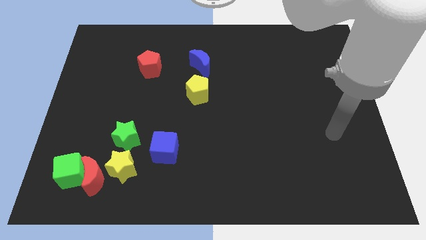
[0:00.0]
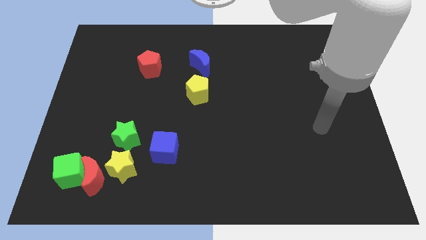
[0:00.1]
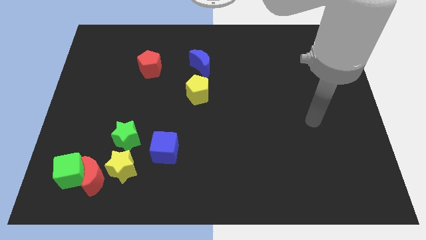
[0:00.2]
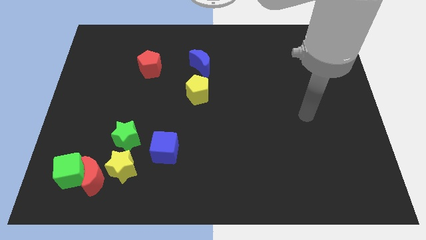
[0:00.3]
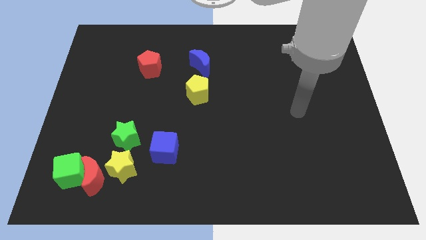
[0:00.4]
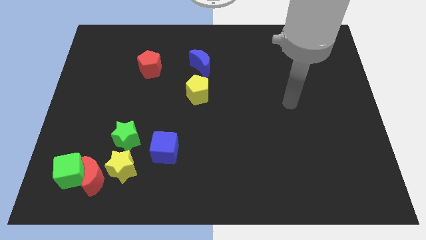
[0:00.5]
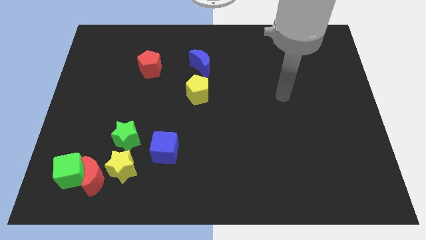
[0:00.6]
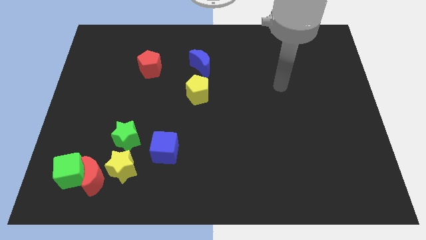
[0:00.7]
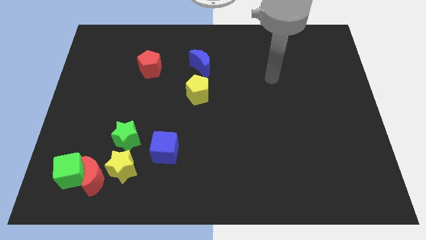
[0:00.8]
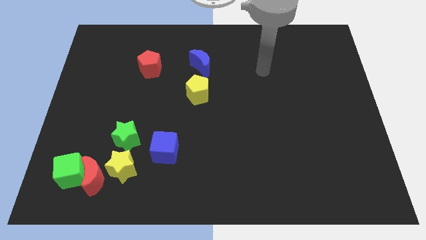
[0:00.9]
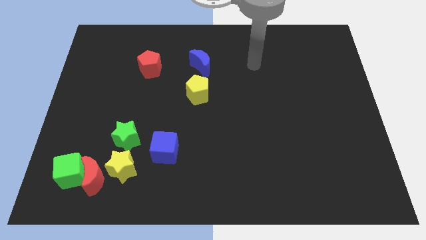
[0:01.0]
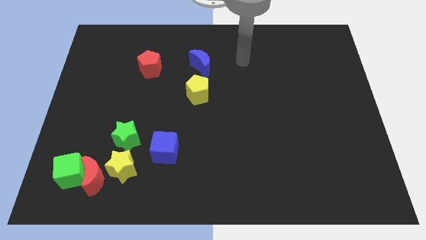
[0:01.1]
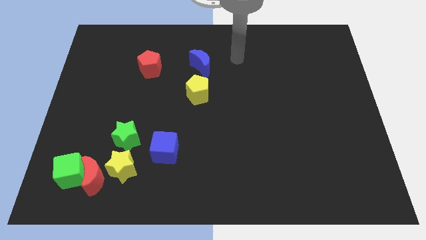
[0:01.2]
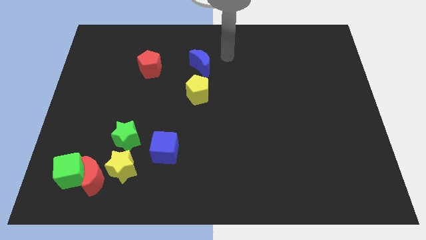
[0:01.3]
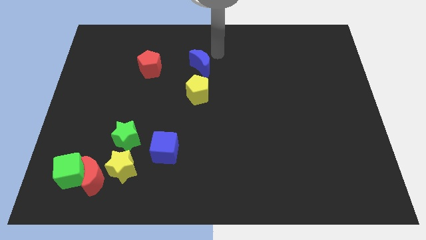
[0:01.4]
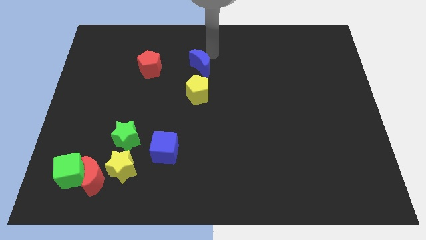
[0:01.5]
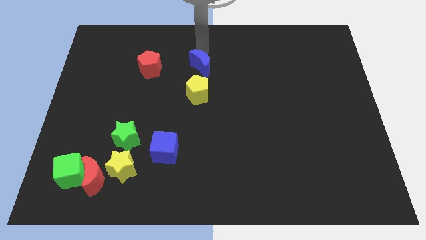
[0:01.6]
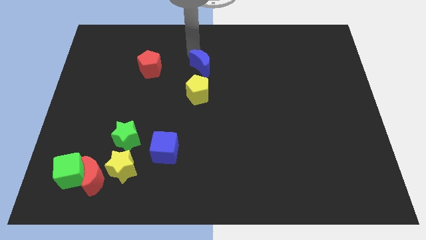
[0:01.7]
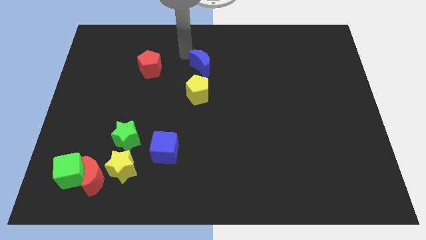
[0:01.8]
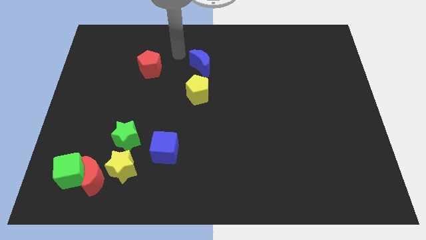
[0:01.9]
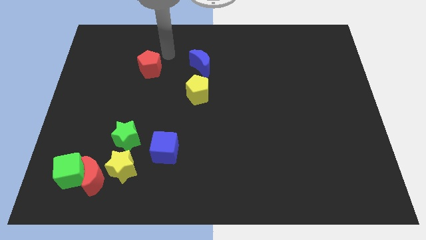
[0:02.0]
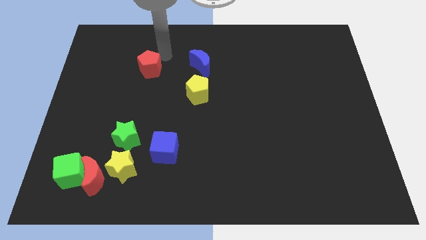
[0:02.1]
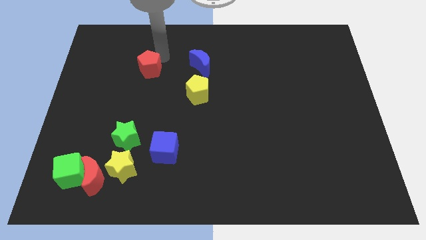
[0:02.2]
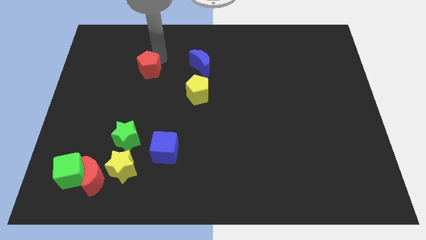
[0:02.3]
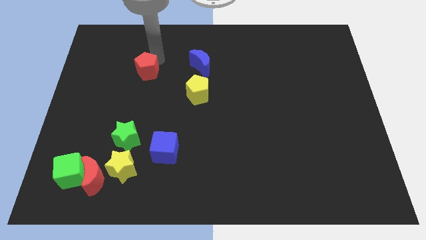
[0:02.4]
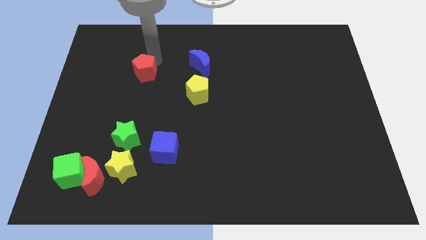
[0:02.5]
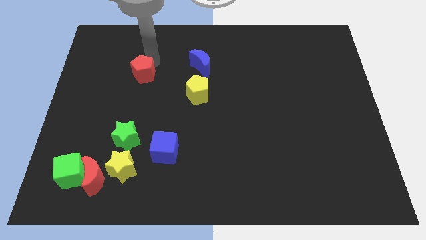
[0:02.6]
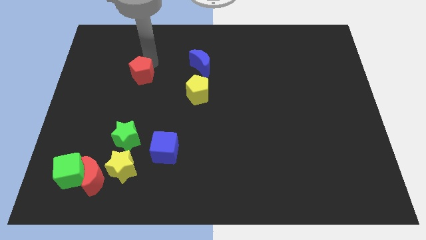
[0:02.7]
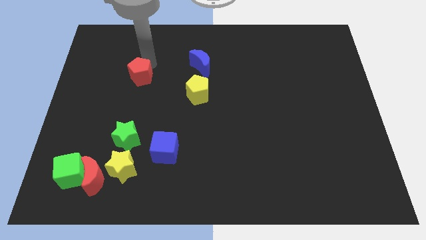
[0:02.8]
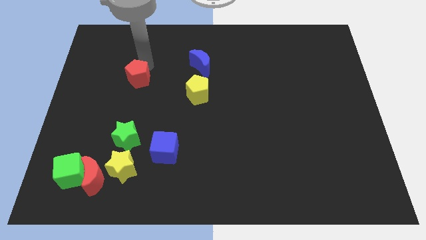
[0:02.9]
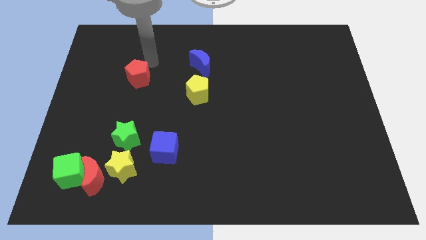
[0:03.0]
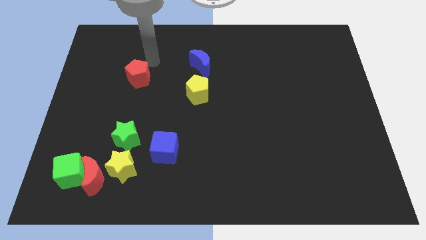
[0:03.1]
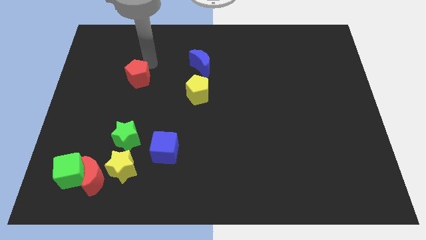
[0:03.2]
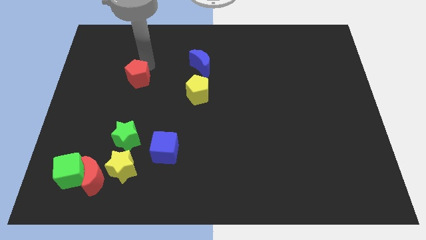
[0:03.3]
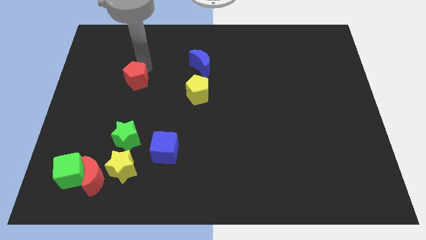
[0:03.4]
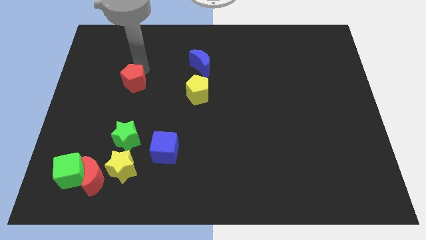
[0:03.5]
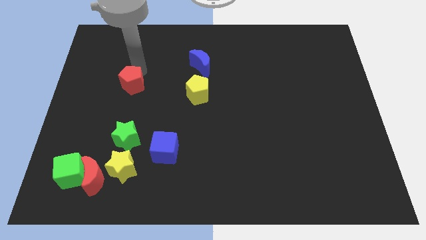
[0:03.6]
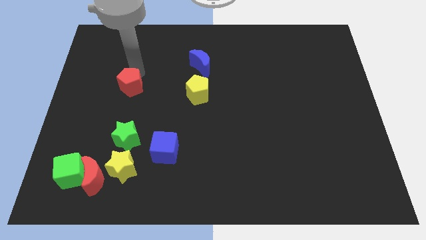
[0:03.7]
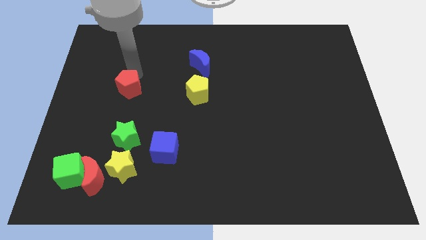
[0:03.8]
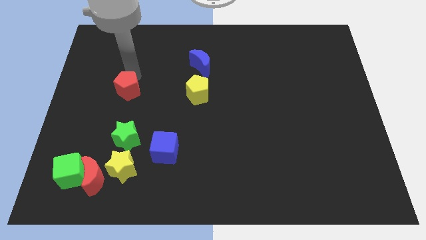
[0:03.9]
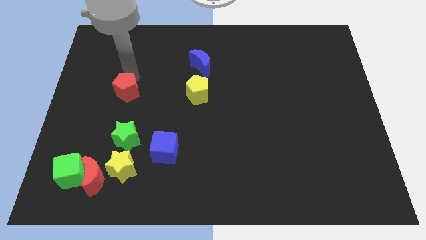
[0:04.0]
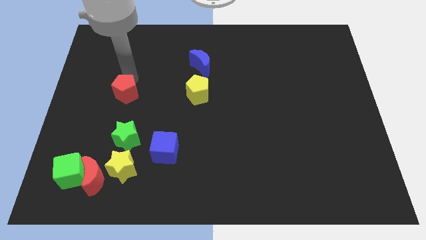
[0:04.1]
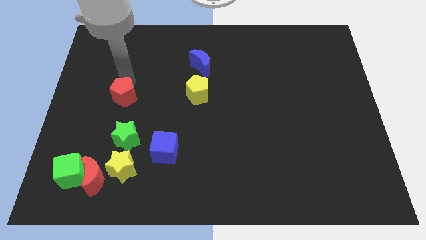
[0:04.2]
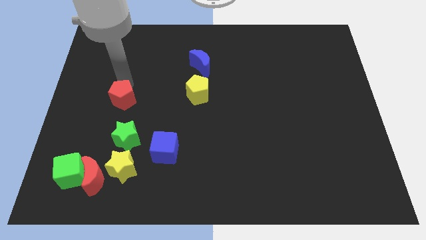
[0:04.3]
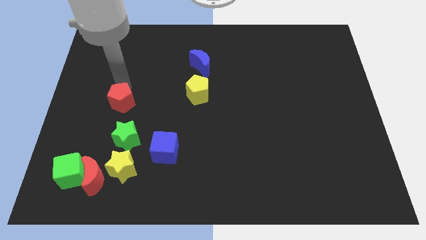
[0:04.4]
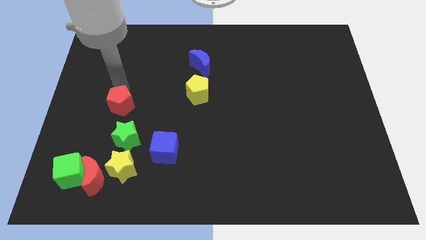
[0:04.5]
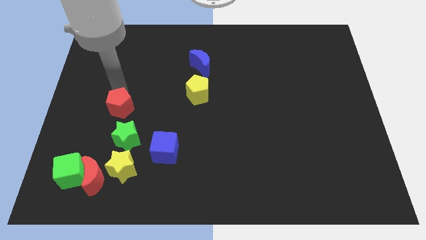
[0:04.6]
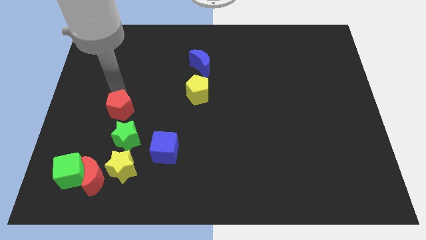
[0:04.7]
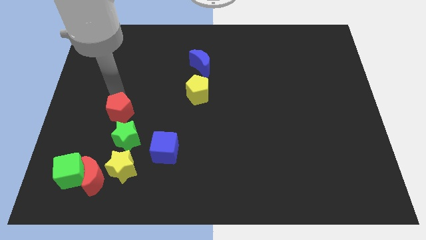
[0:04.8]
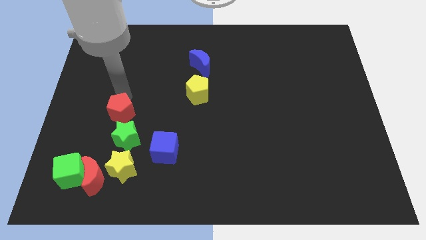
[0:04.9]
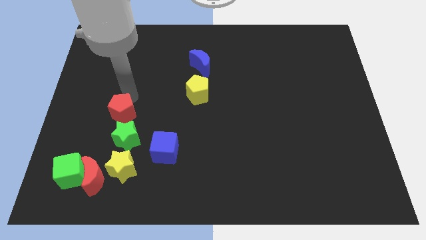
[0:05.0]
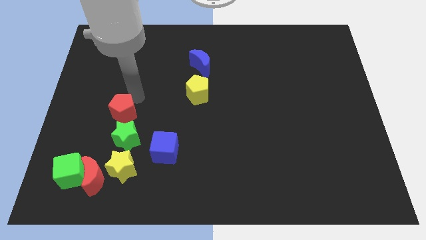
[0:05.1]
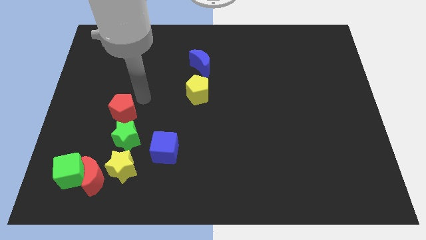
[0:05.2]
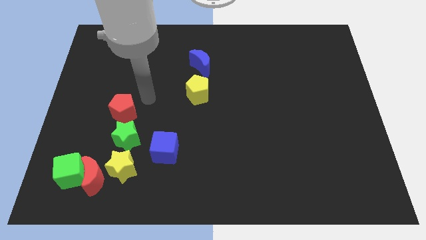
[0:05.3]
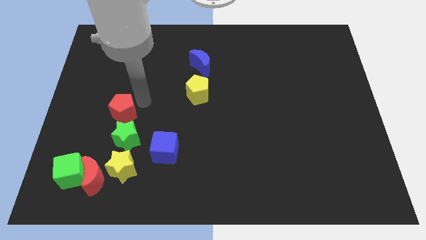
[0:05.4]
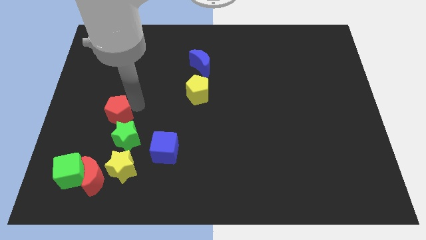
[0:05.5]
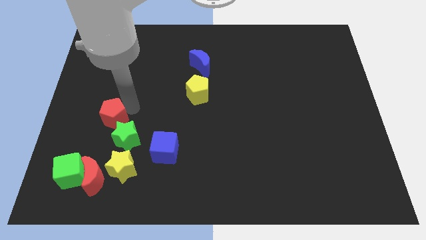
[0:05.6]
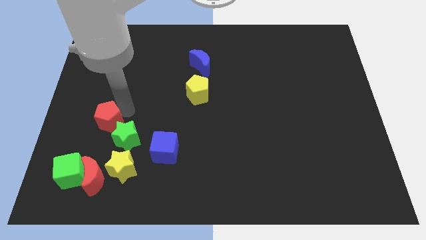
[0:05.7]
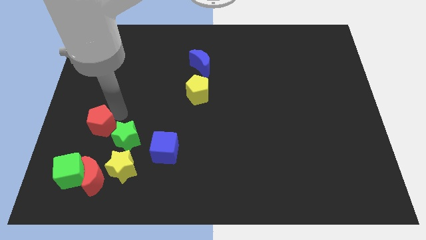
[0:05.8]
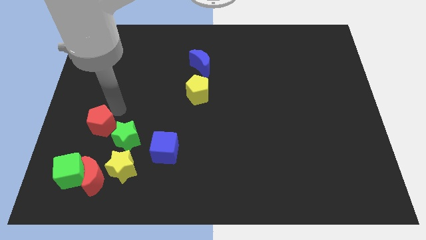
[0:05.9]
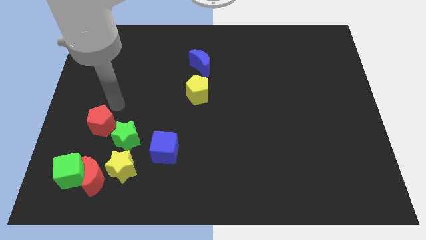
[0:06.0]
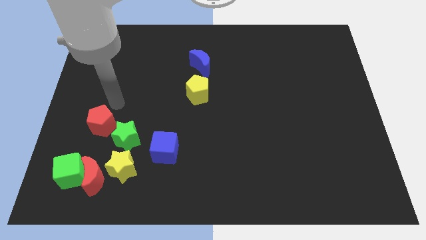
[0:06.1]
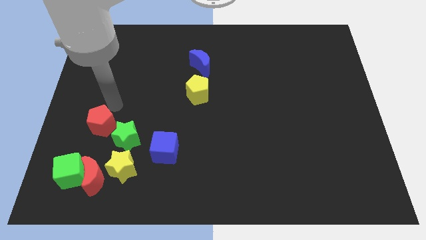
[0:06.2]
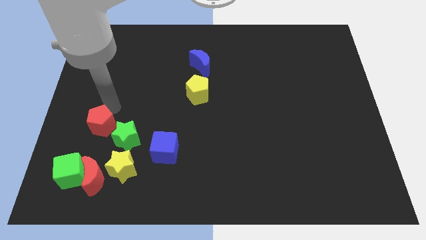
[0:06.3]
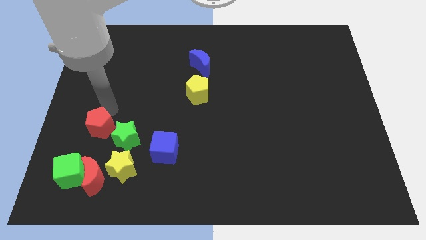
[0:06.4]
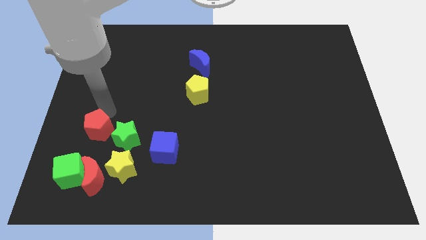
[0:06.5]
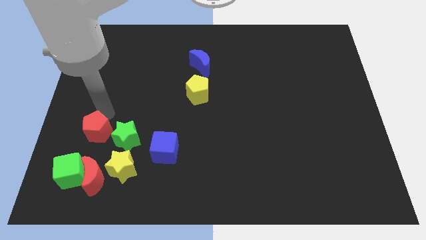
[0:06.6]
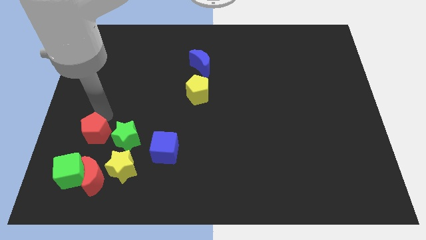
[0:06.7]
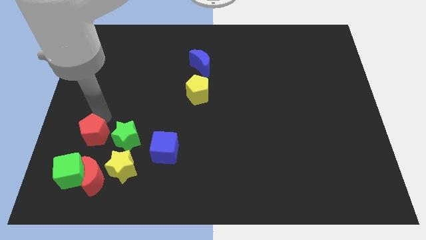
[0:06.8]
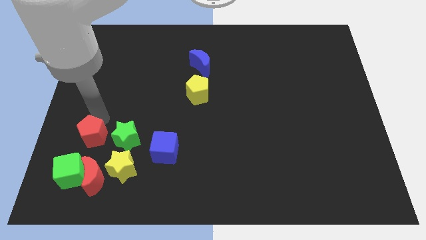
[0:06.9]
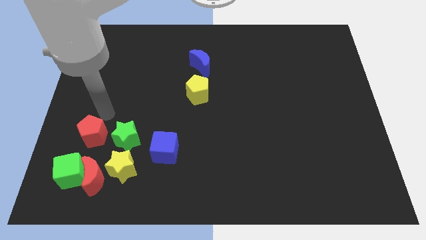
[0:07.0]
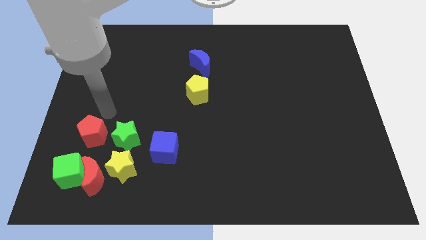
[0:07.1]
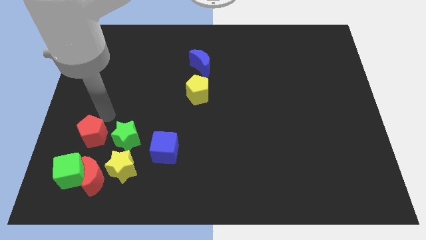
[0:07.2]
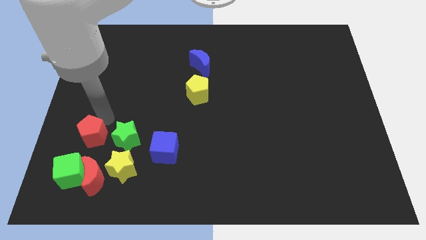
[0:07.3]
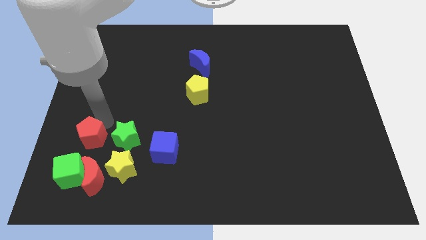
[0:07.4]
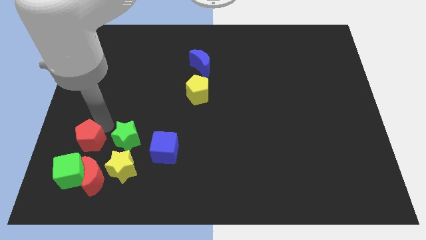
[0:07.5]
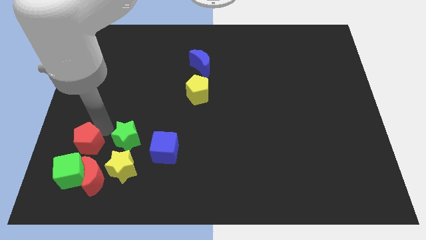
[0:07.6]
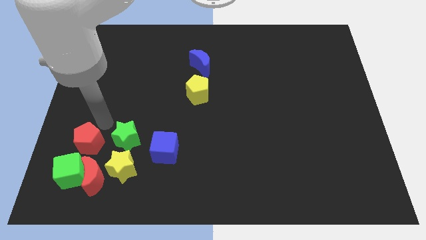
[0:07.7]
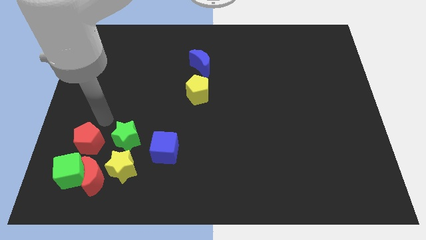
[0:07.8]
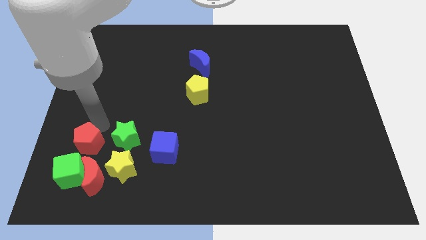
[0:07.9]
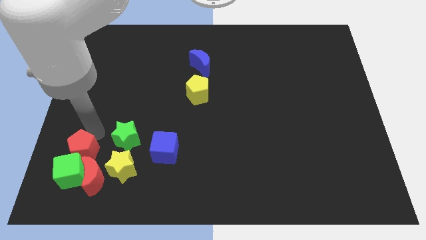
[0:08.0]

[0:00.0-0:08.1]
put the red pentagon close to the green cube
